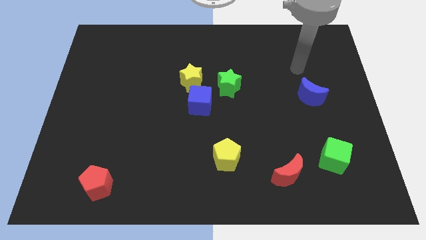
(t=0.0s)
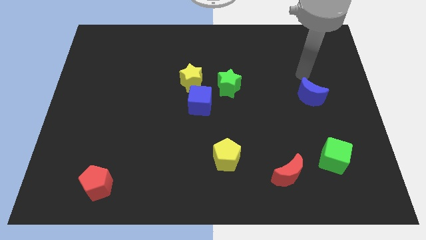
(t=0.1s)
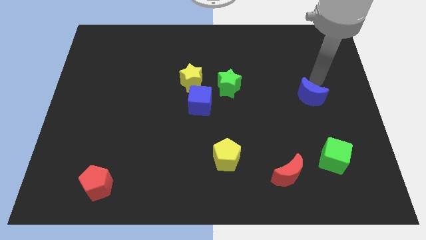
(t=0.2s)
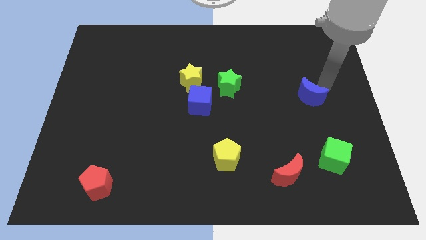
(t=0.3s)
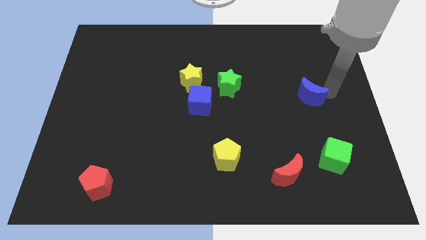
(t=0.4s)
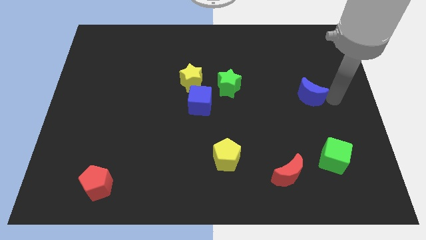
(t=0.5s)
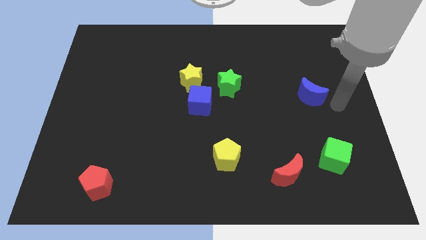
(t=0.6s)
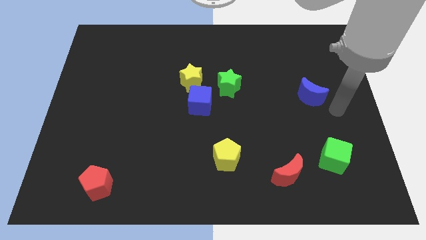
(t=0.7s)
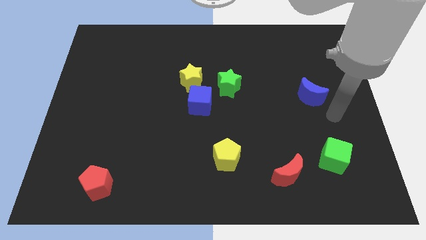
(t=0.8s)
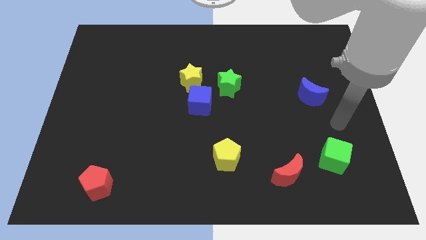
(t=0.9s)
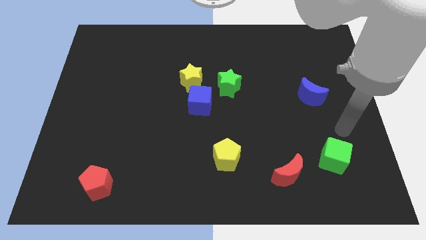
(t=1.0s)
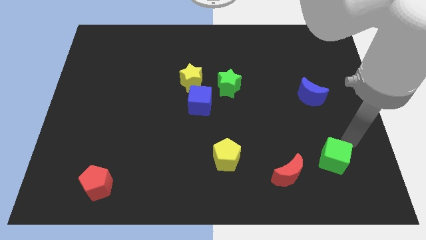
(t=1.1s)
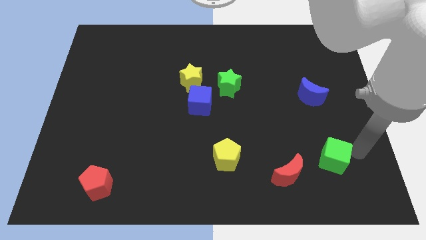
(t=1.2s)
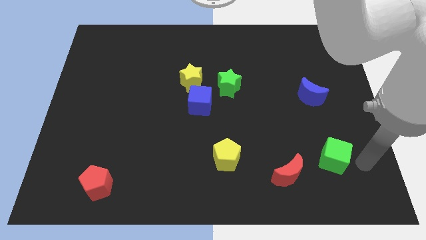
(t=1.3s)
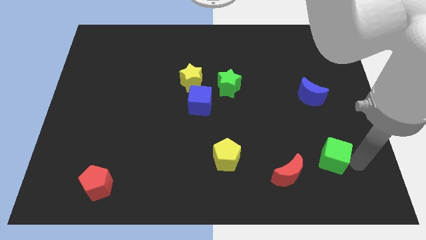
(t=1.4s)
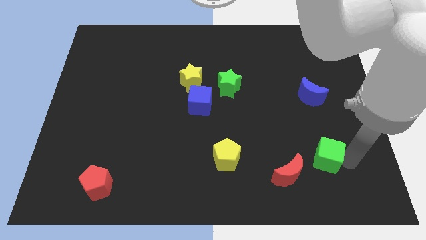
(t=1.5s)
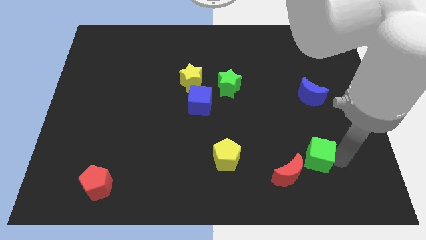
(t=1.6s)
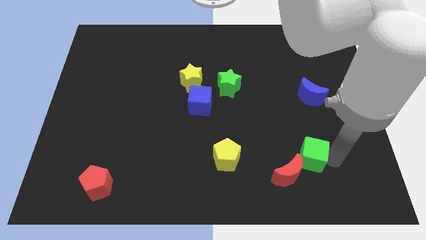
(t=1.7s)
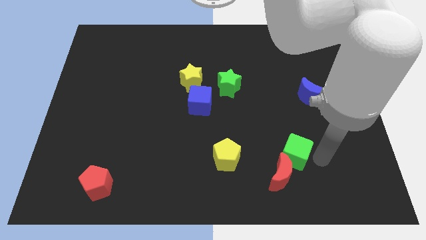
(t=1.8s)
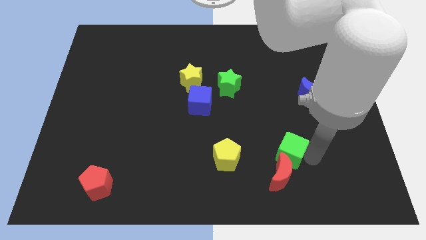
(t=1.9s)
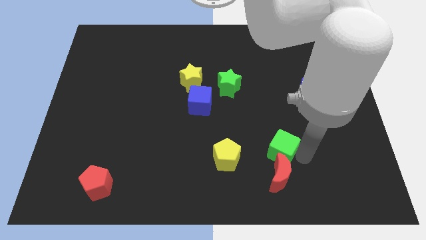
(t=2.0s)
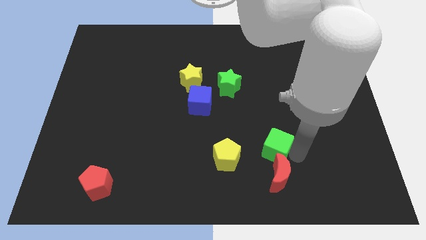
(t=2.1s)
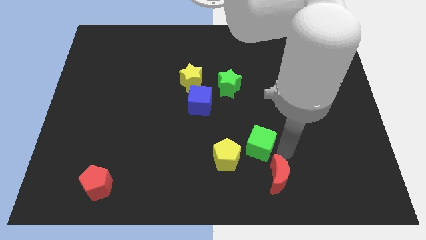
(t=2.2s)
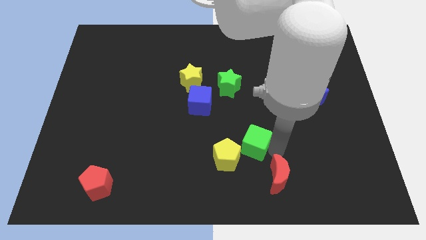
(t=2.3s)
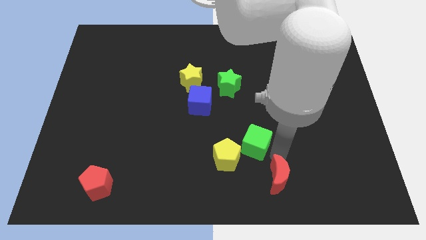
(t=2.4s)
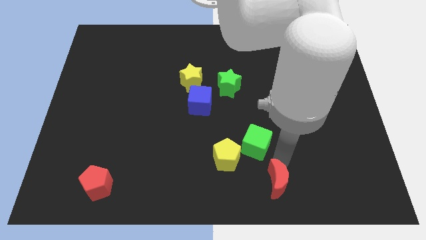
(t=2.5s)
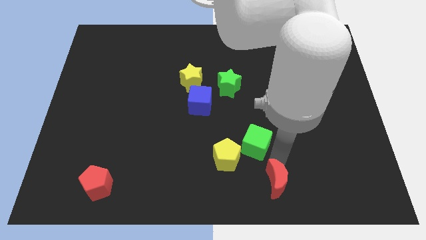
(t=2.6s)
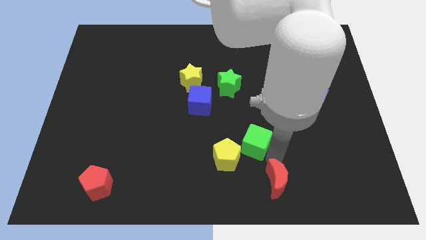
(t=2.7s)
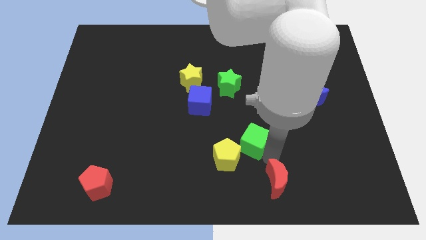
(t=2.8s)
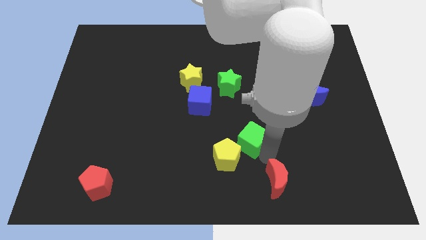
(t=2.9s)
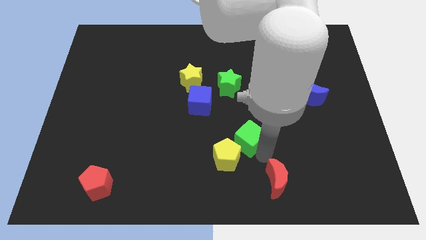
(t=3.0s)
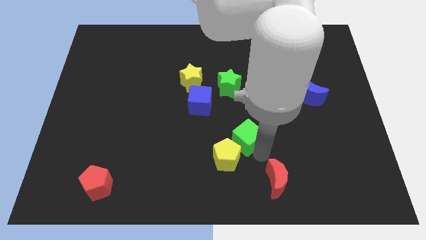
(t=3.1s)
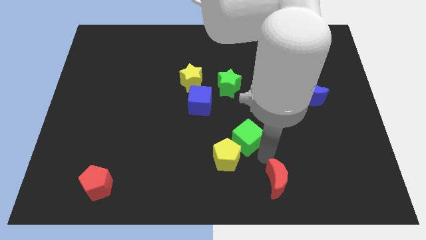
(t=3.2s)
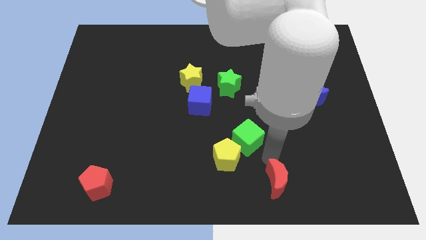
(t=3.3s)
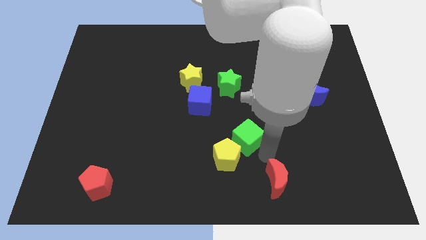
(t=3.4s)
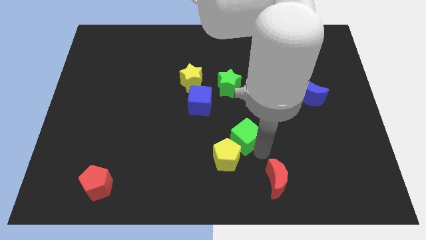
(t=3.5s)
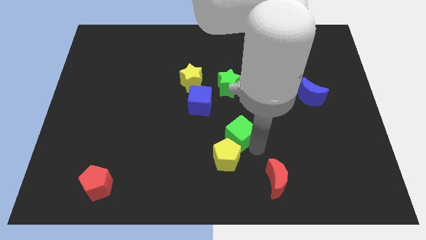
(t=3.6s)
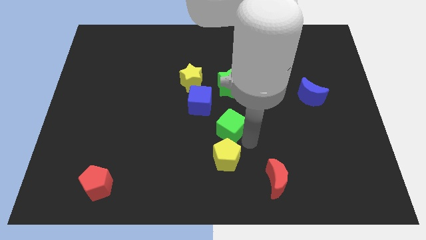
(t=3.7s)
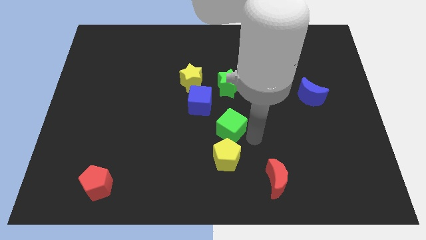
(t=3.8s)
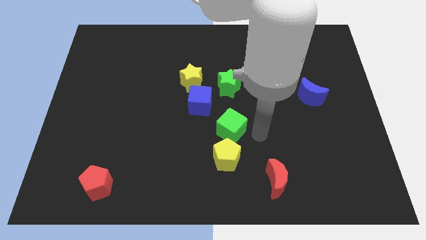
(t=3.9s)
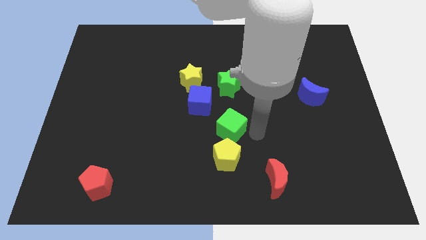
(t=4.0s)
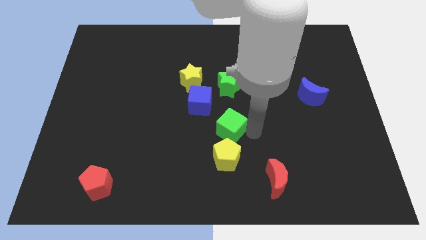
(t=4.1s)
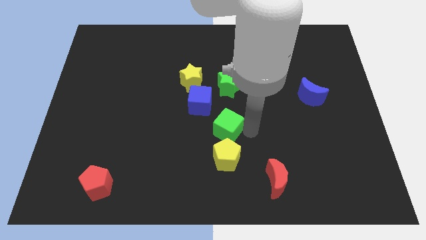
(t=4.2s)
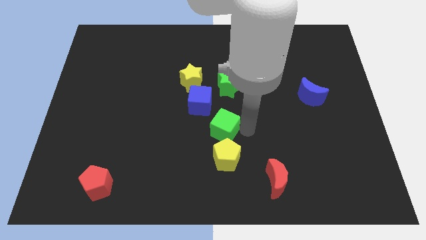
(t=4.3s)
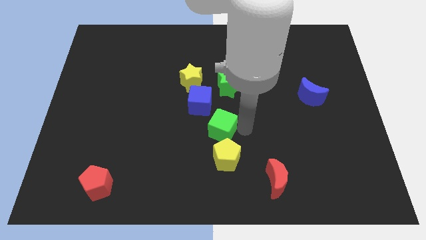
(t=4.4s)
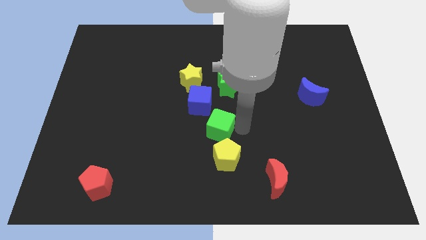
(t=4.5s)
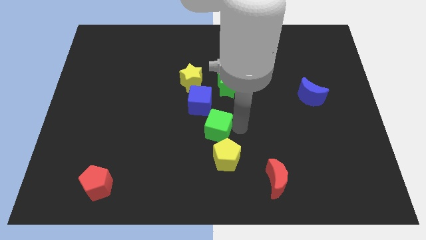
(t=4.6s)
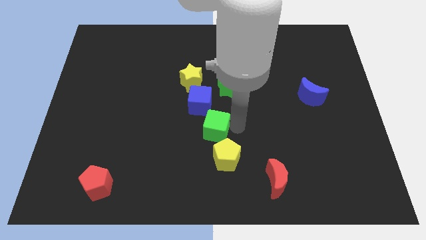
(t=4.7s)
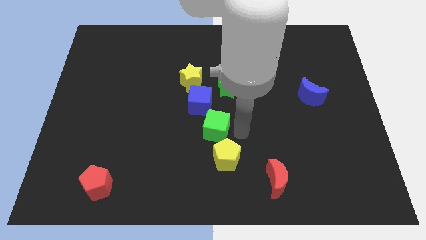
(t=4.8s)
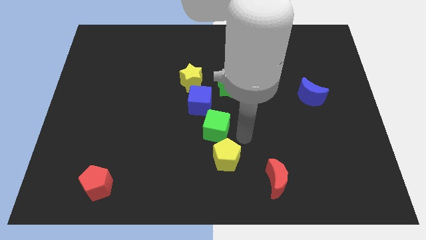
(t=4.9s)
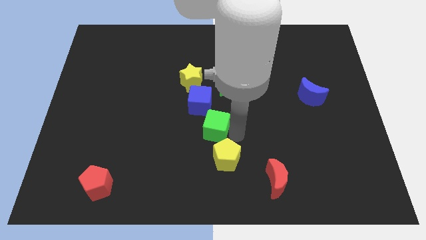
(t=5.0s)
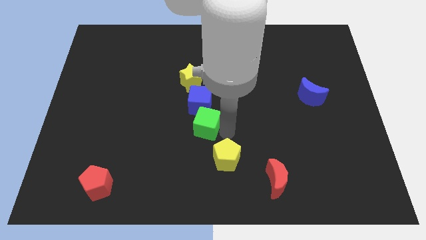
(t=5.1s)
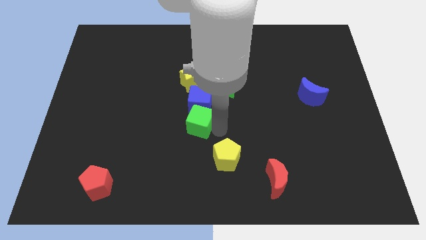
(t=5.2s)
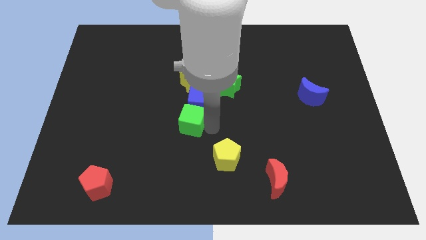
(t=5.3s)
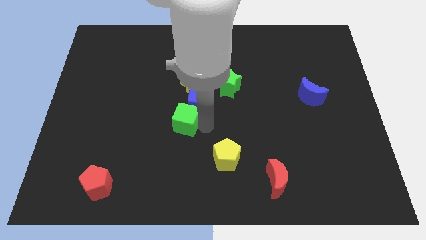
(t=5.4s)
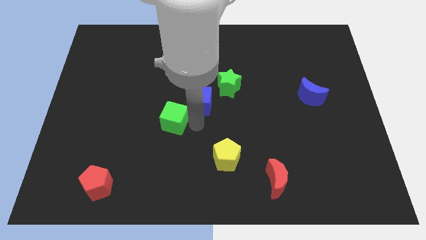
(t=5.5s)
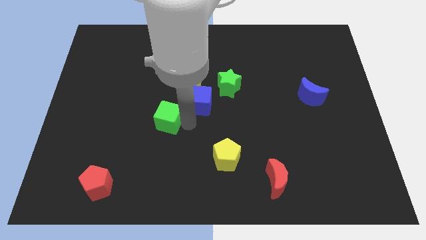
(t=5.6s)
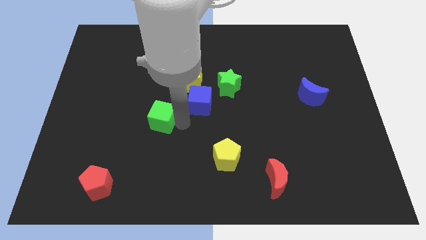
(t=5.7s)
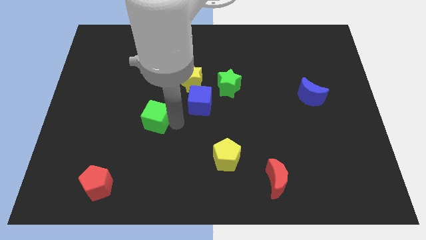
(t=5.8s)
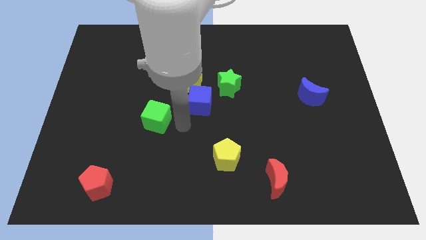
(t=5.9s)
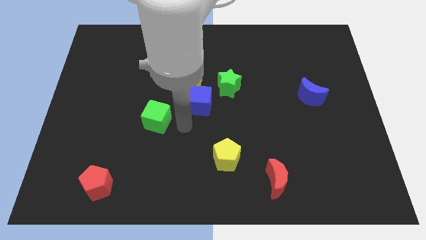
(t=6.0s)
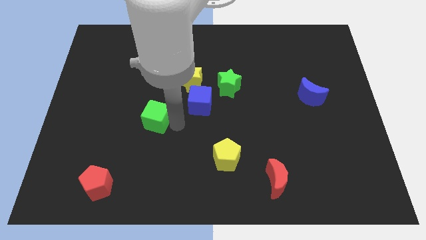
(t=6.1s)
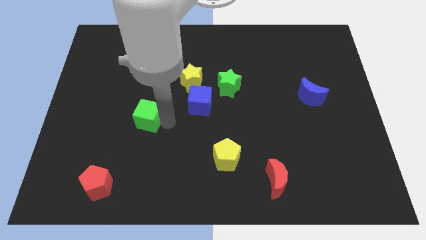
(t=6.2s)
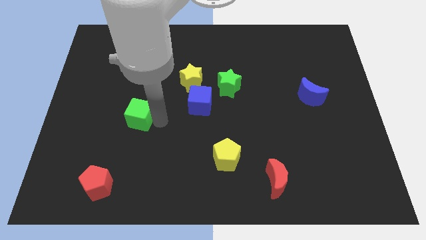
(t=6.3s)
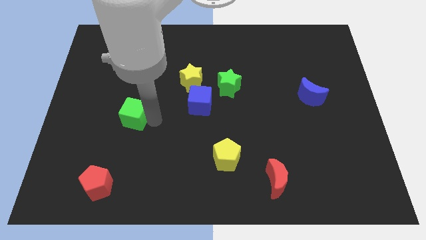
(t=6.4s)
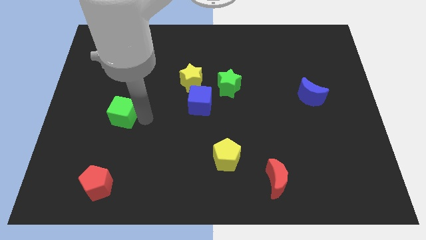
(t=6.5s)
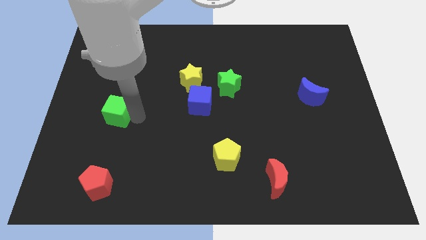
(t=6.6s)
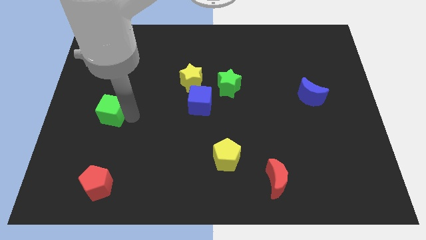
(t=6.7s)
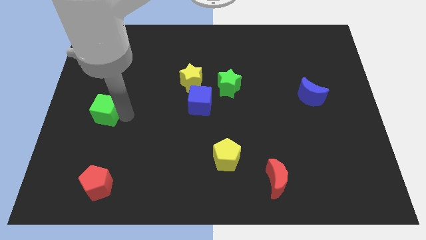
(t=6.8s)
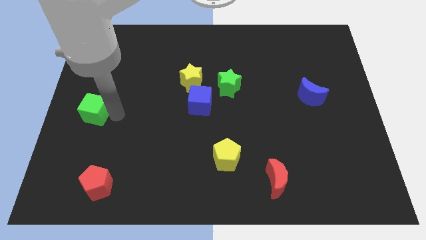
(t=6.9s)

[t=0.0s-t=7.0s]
put the green cube to the left side of the board
